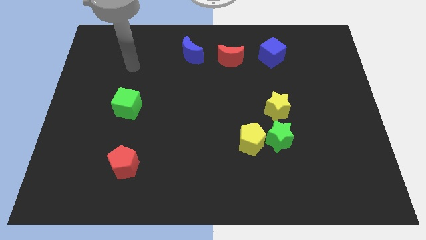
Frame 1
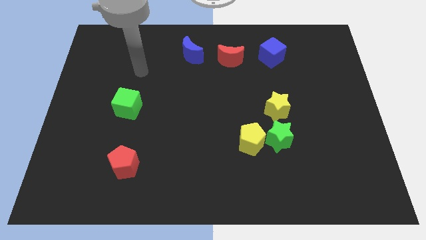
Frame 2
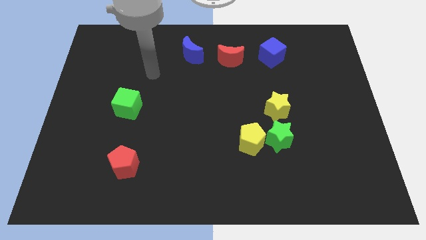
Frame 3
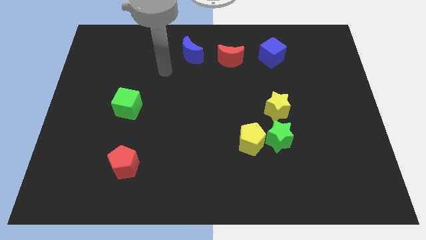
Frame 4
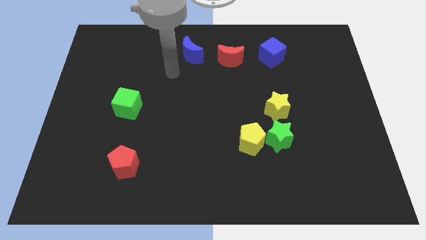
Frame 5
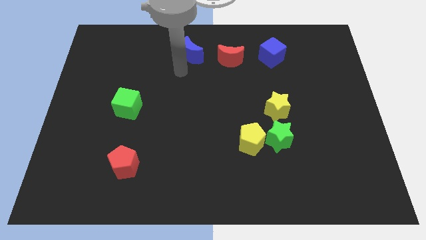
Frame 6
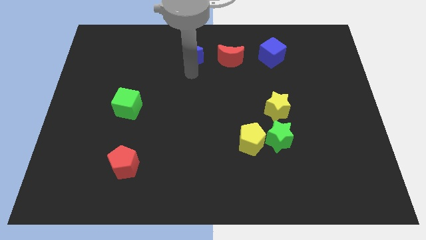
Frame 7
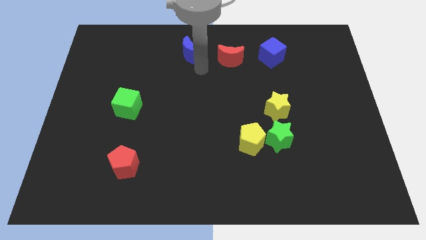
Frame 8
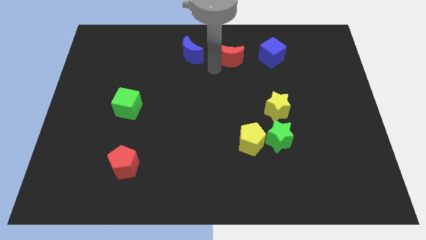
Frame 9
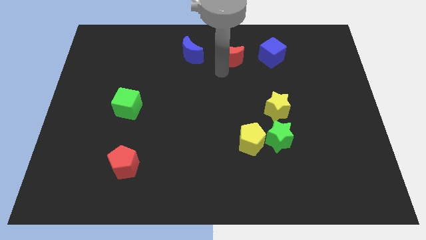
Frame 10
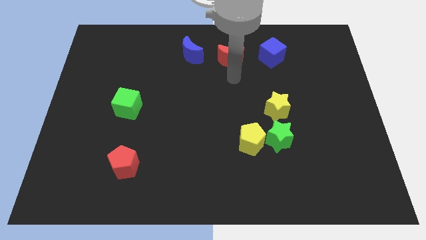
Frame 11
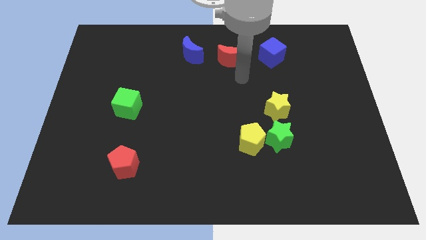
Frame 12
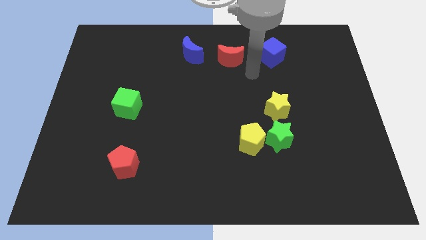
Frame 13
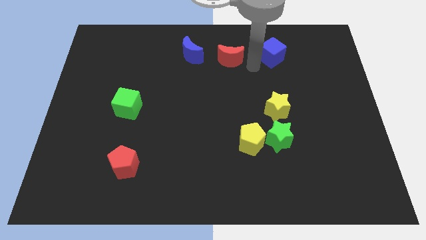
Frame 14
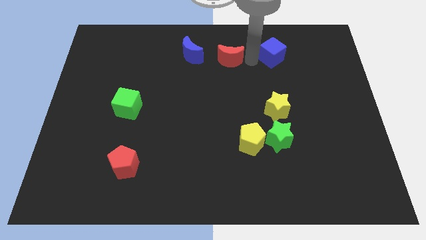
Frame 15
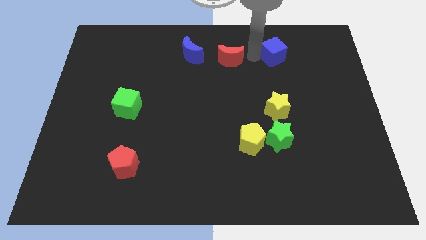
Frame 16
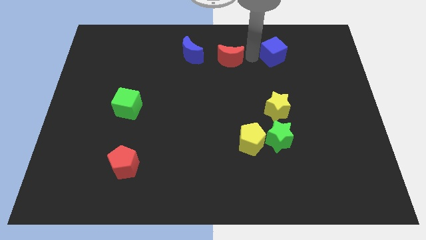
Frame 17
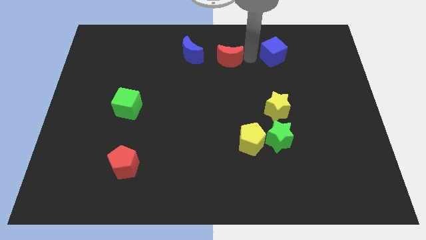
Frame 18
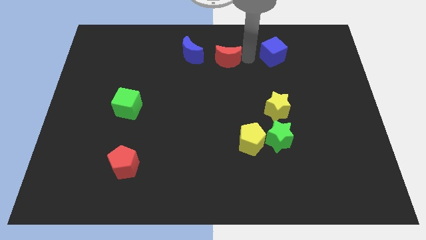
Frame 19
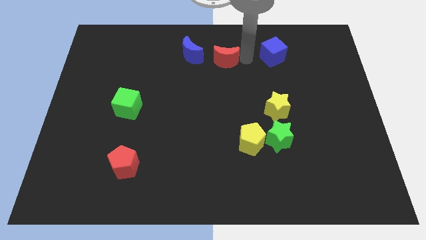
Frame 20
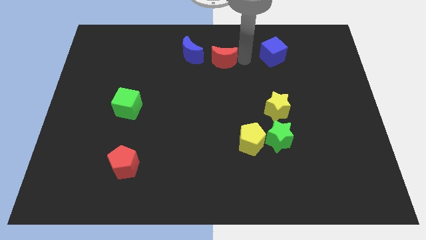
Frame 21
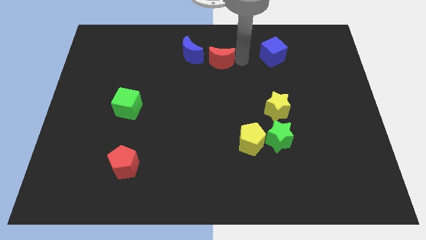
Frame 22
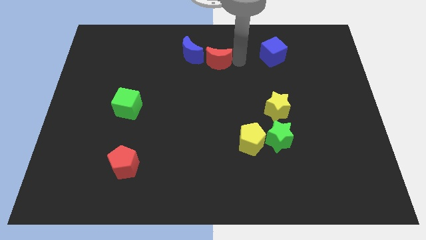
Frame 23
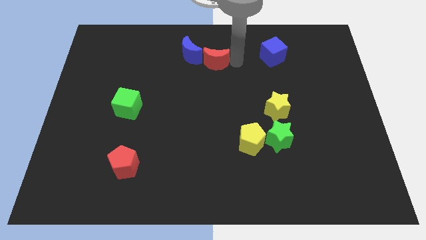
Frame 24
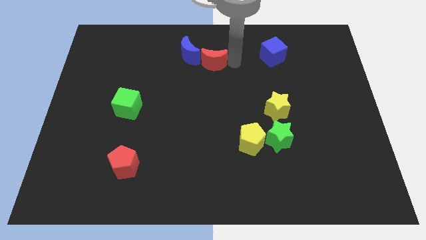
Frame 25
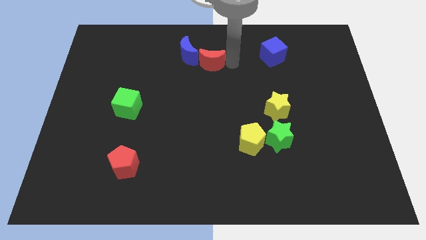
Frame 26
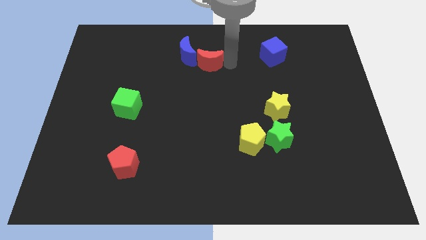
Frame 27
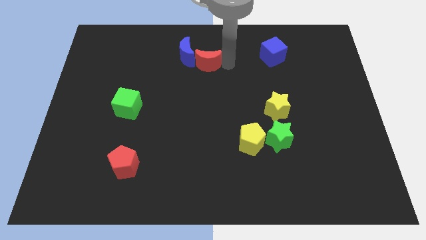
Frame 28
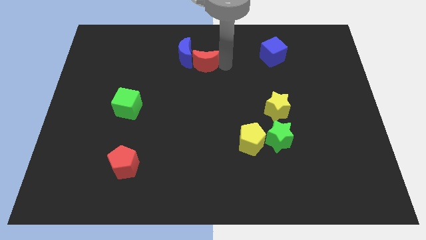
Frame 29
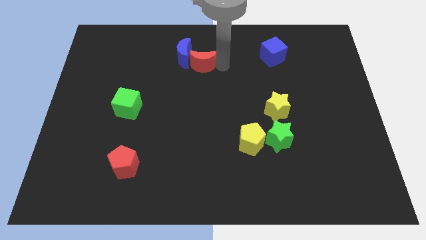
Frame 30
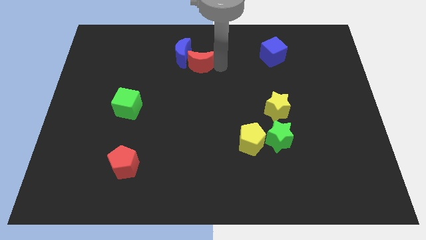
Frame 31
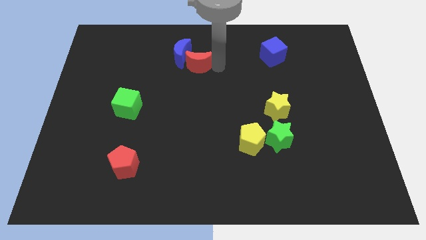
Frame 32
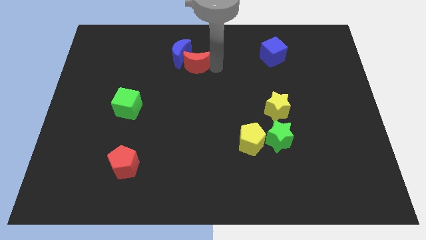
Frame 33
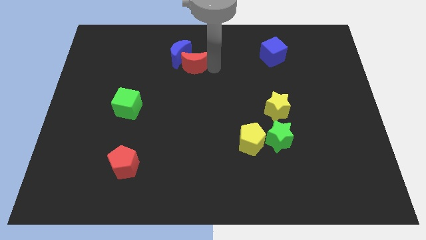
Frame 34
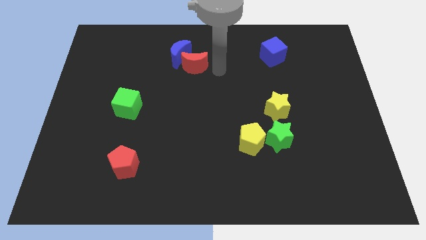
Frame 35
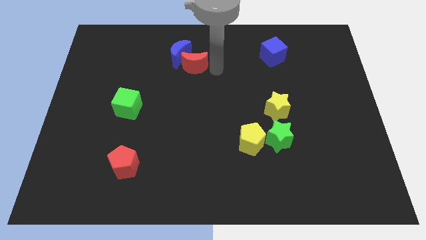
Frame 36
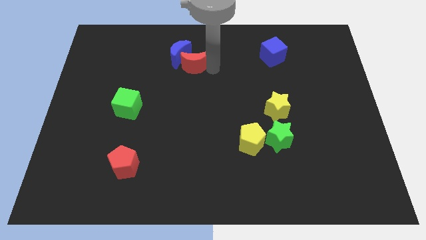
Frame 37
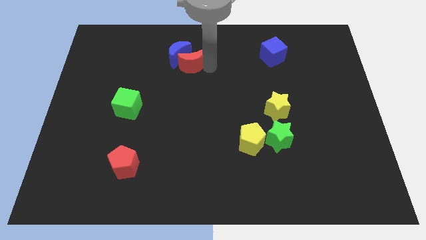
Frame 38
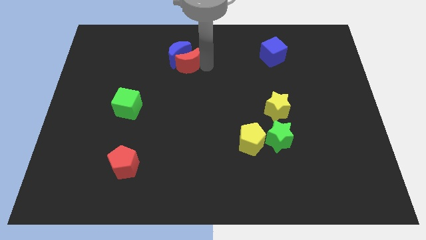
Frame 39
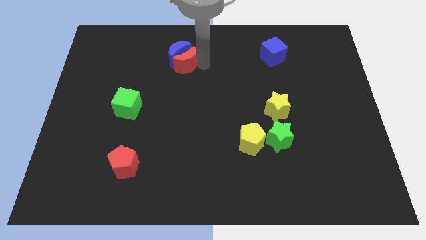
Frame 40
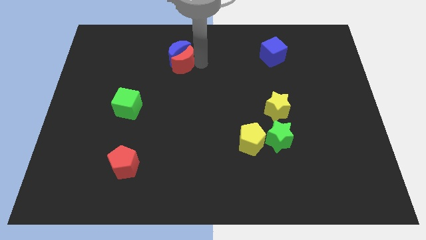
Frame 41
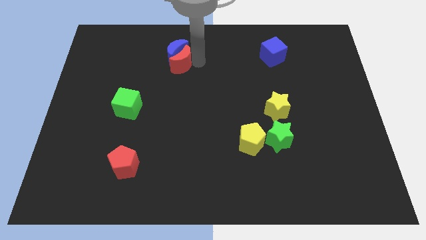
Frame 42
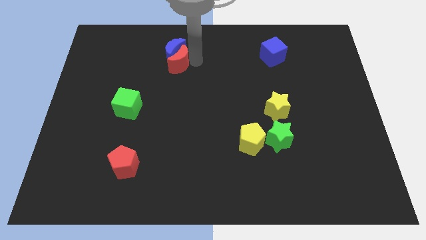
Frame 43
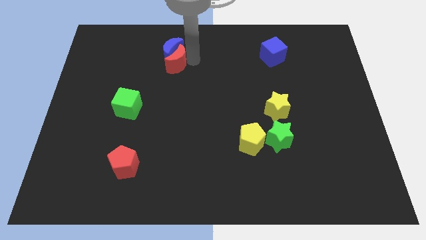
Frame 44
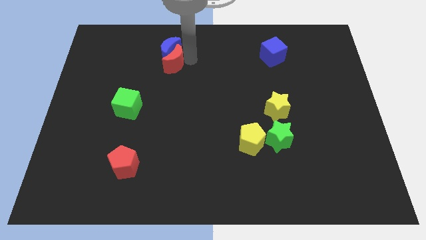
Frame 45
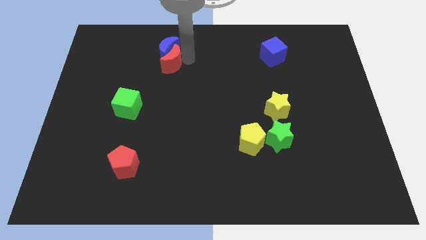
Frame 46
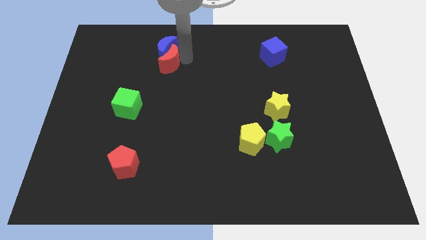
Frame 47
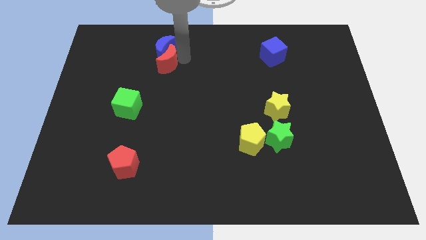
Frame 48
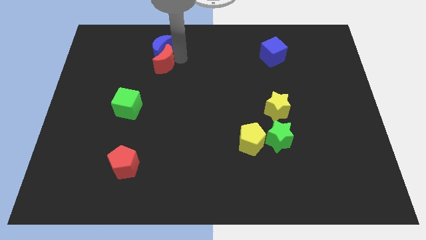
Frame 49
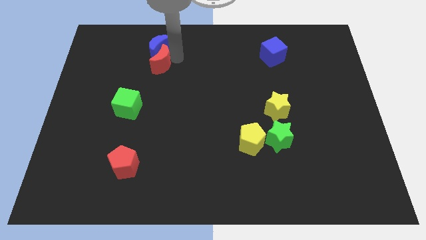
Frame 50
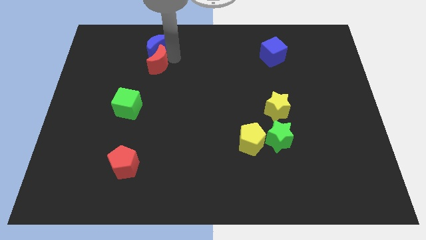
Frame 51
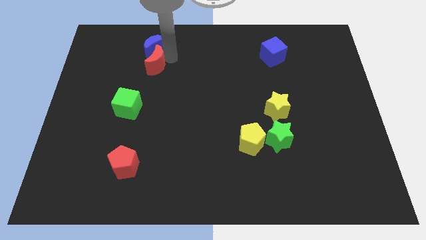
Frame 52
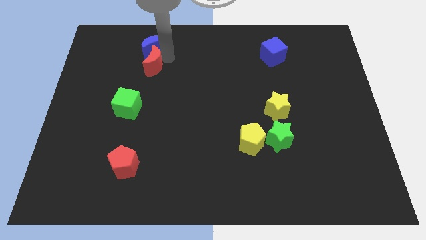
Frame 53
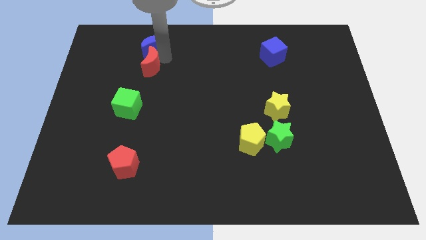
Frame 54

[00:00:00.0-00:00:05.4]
push the red moon to the left

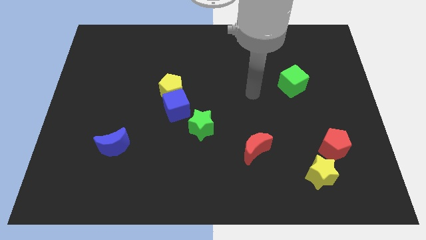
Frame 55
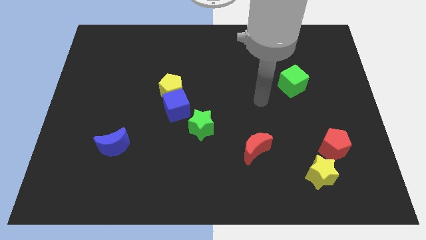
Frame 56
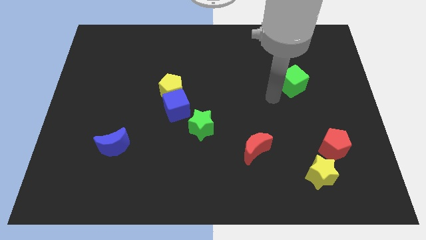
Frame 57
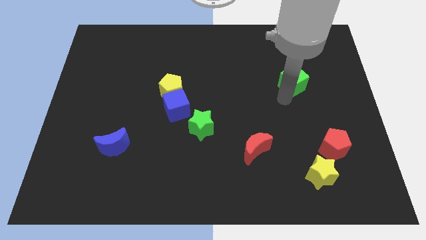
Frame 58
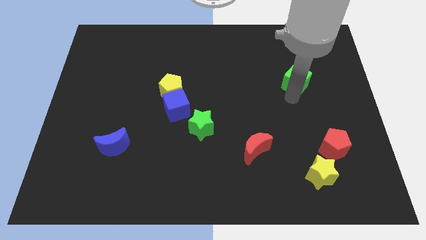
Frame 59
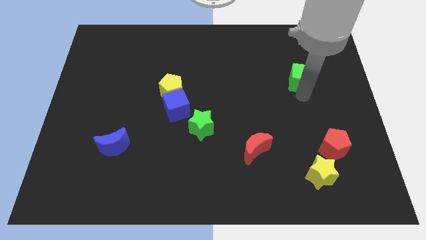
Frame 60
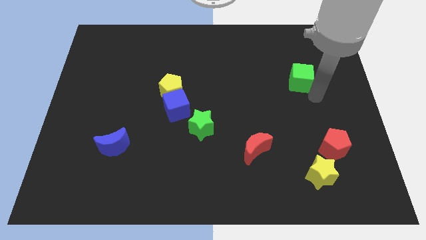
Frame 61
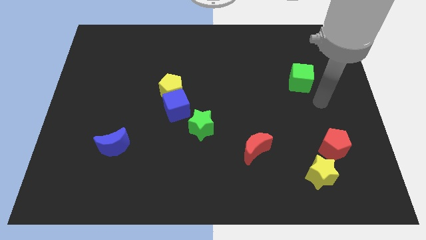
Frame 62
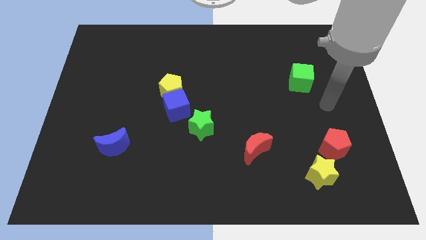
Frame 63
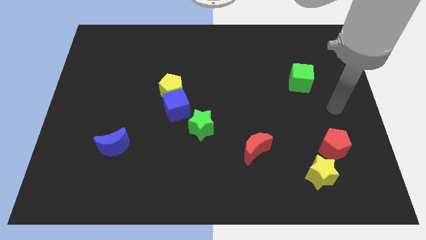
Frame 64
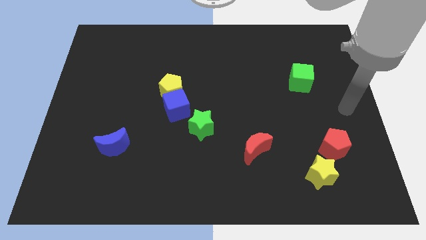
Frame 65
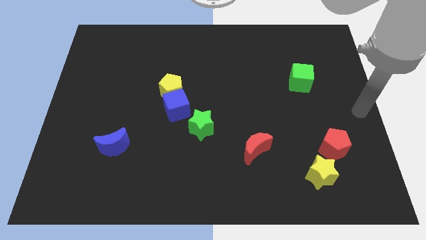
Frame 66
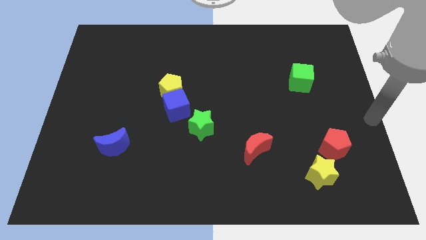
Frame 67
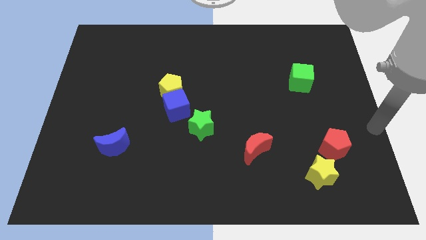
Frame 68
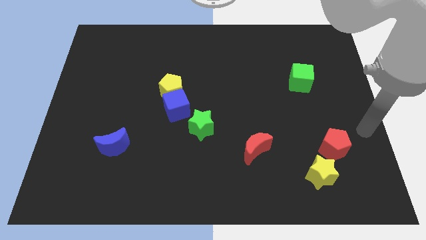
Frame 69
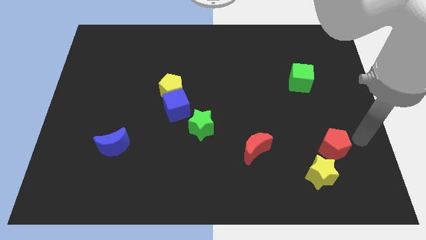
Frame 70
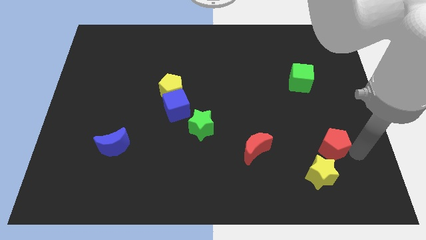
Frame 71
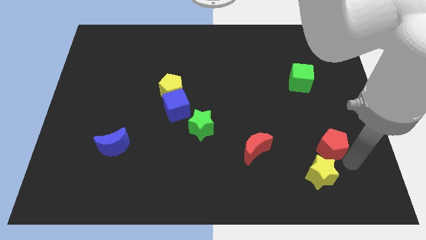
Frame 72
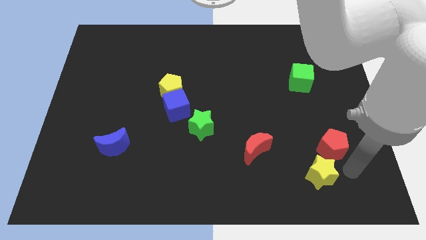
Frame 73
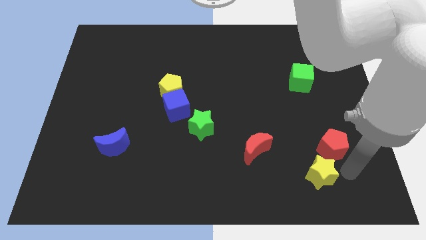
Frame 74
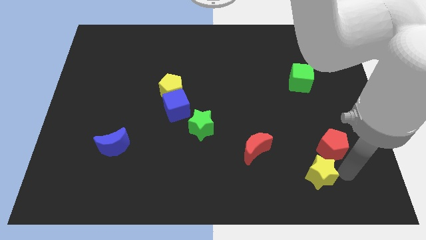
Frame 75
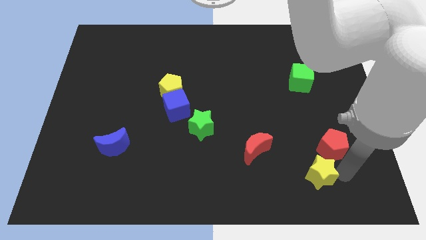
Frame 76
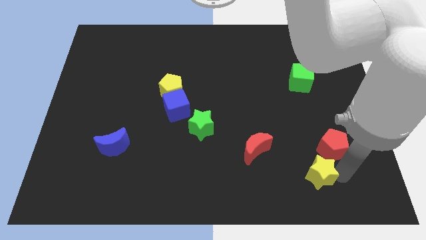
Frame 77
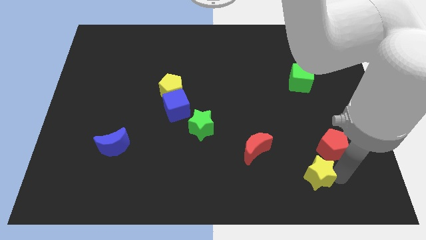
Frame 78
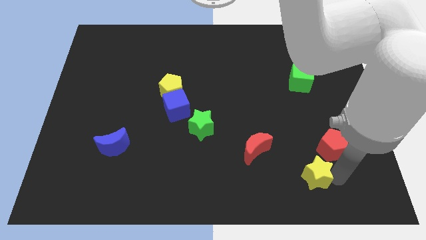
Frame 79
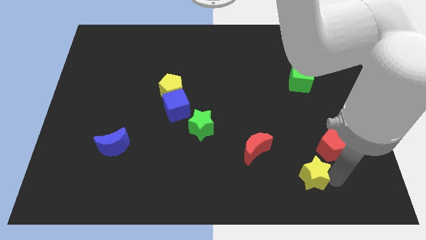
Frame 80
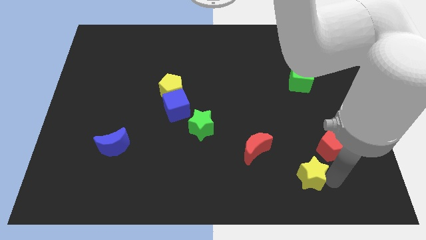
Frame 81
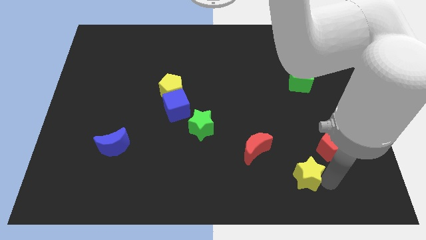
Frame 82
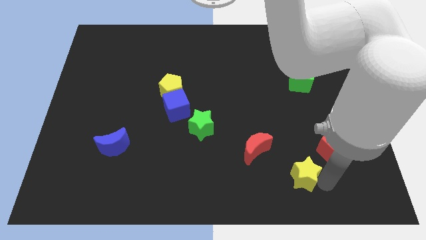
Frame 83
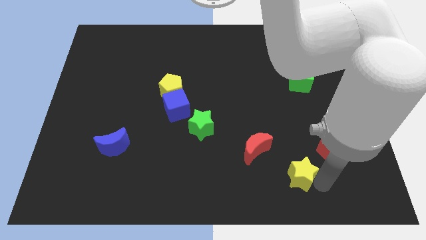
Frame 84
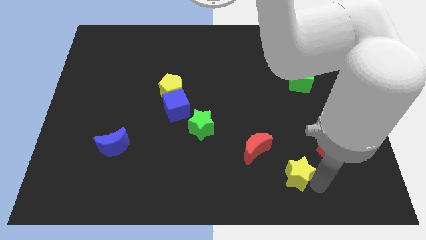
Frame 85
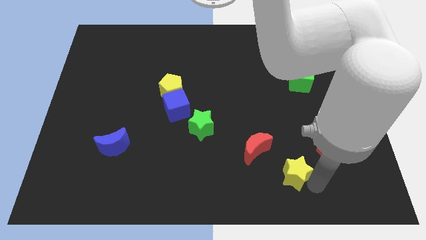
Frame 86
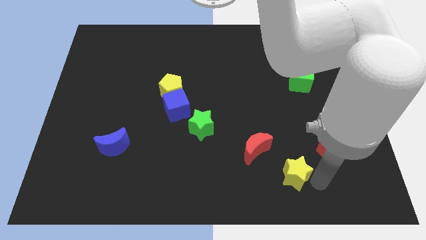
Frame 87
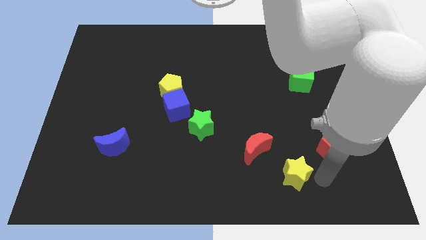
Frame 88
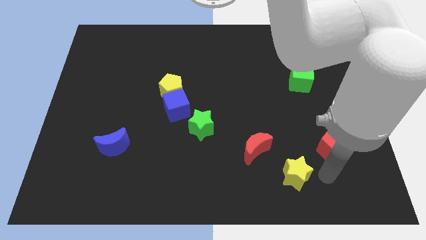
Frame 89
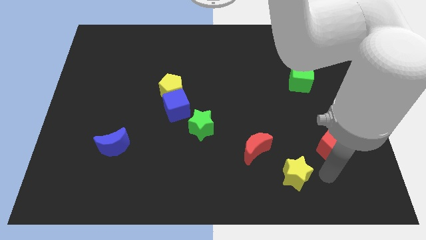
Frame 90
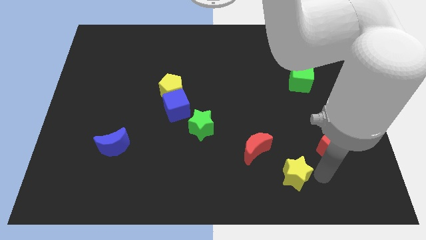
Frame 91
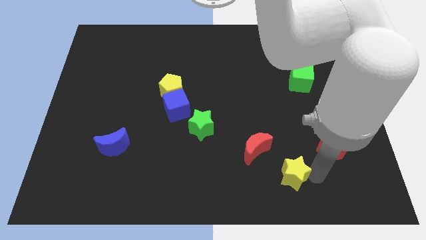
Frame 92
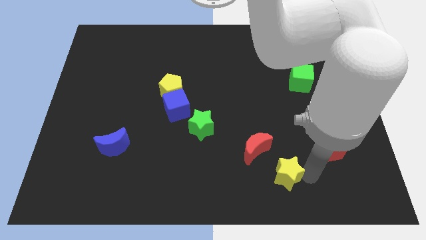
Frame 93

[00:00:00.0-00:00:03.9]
push the yellow star to the left slightly
